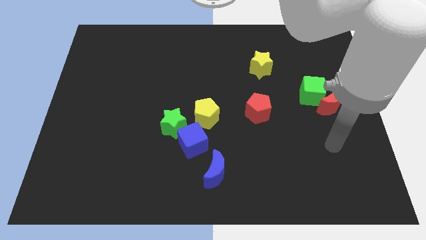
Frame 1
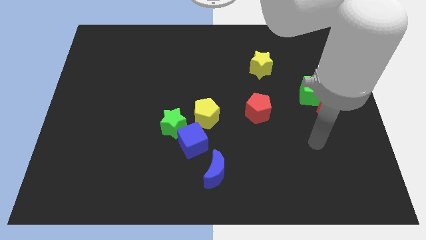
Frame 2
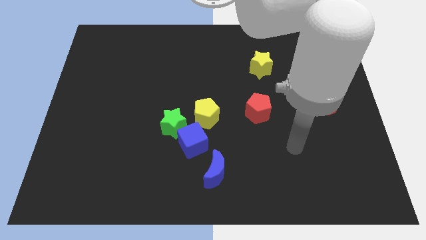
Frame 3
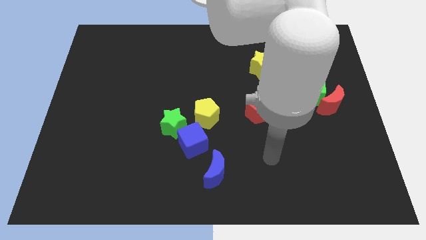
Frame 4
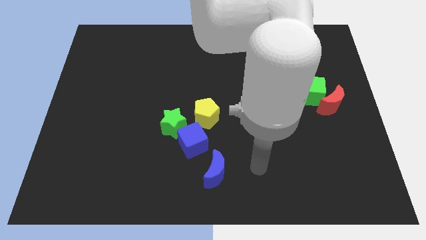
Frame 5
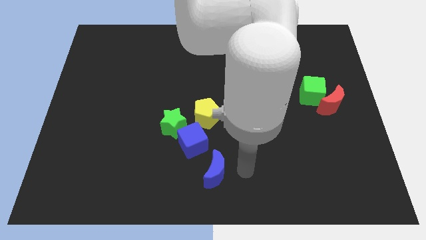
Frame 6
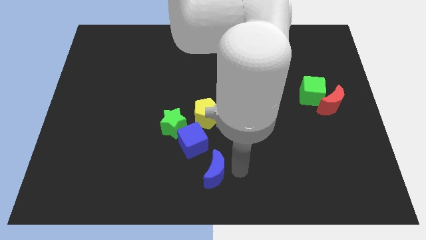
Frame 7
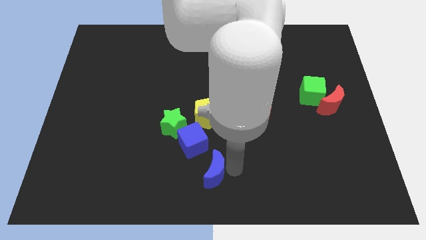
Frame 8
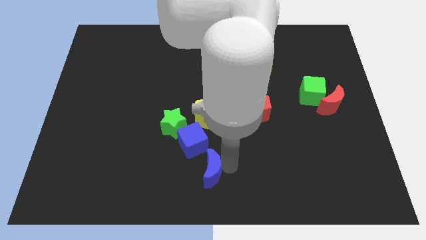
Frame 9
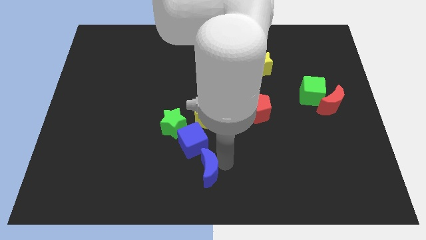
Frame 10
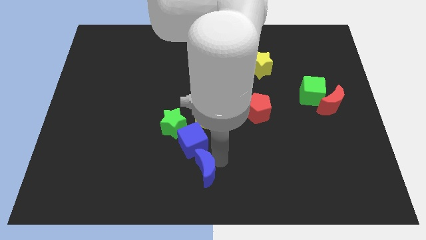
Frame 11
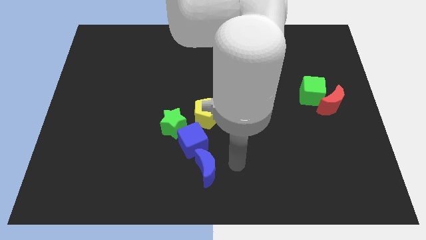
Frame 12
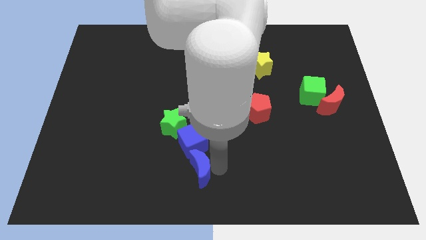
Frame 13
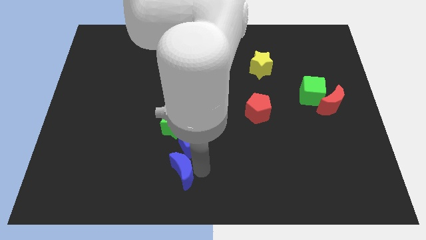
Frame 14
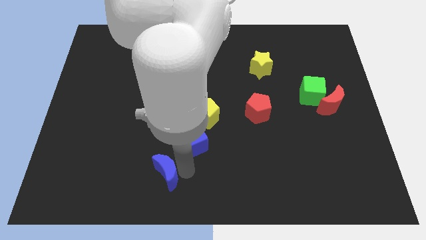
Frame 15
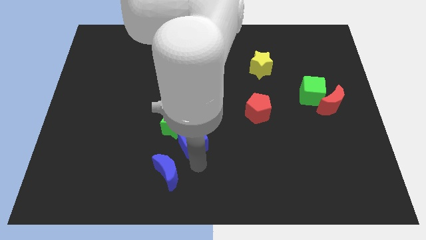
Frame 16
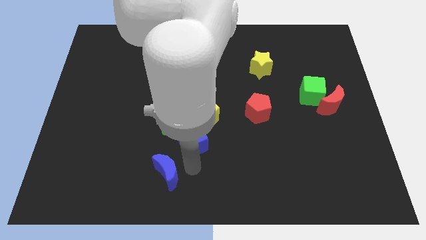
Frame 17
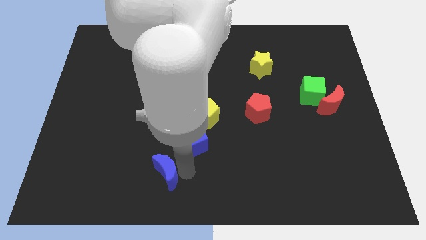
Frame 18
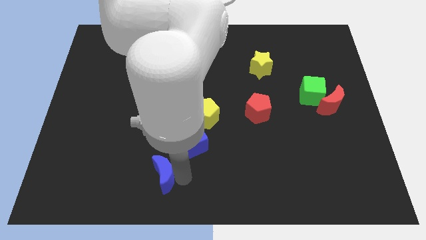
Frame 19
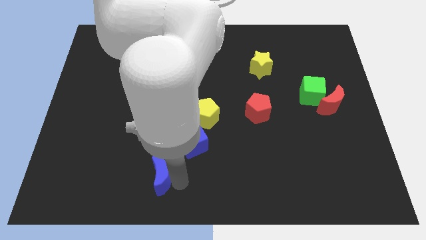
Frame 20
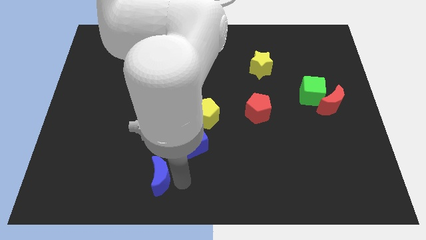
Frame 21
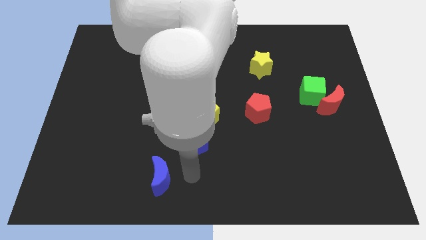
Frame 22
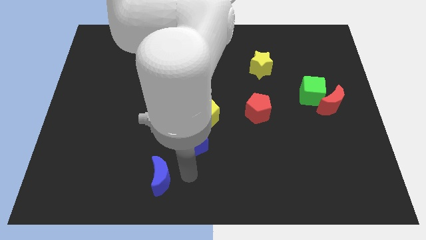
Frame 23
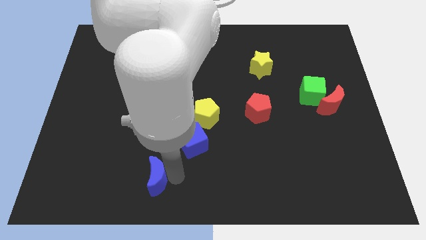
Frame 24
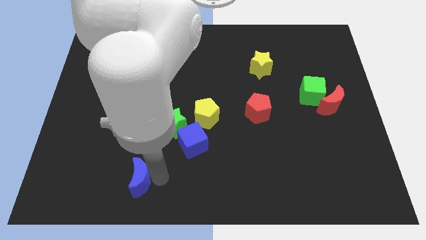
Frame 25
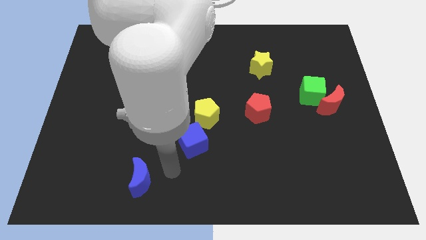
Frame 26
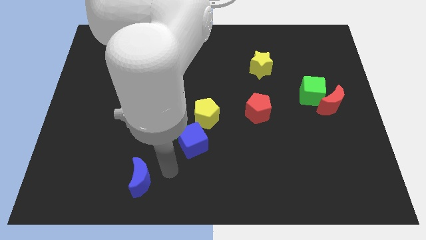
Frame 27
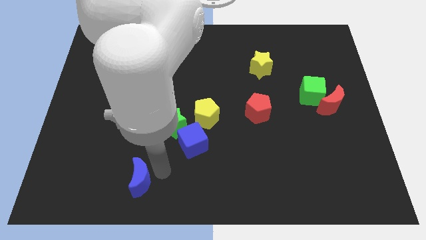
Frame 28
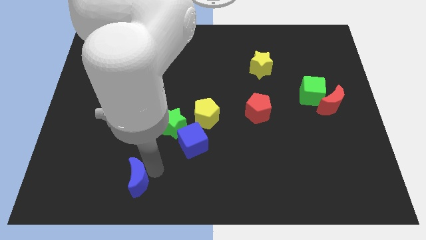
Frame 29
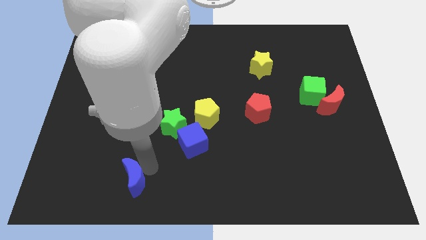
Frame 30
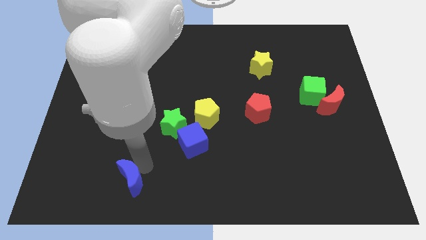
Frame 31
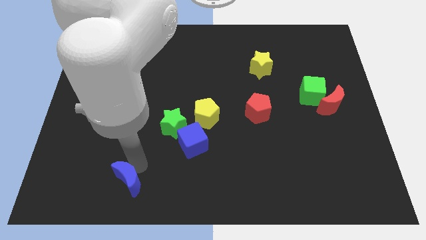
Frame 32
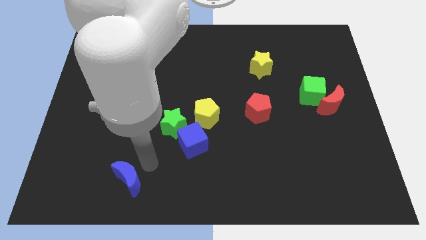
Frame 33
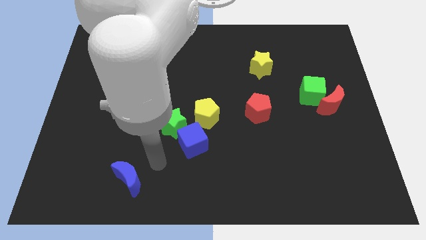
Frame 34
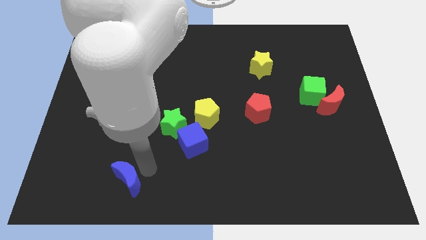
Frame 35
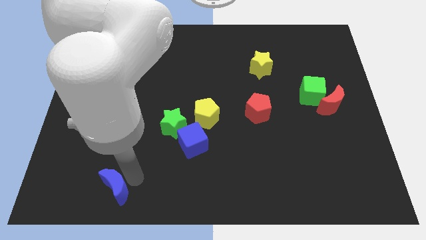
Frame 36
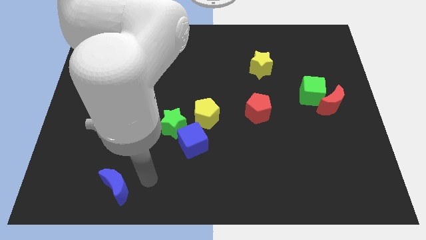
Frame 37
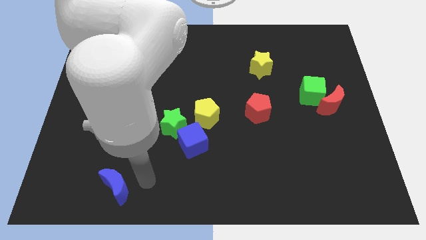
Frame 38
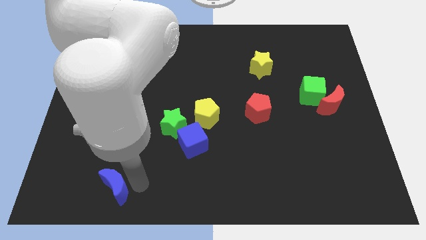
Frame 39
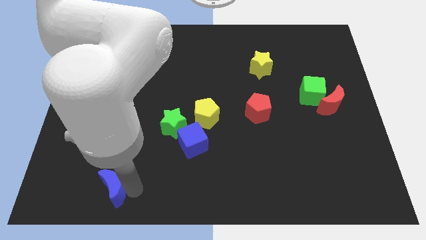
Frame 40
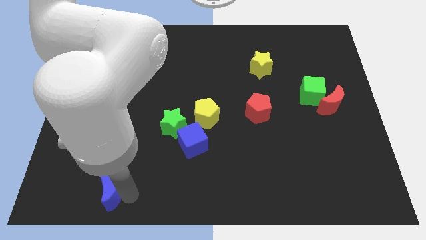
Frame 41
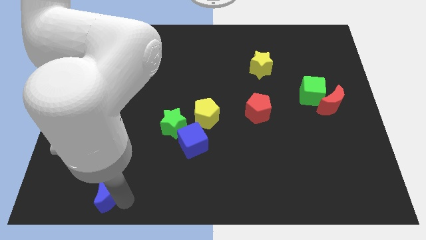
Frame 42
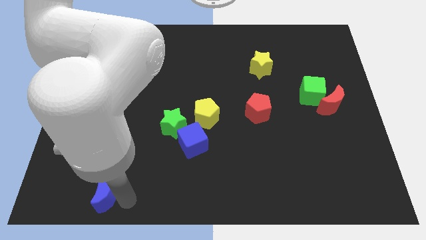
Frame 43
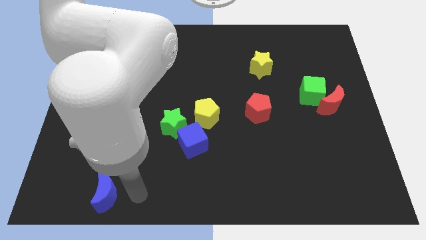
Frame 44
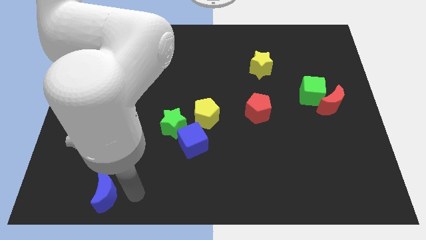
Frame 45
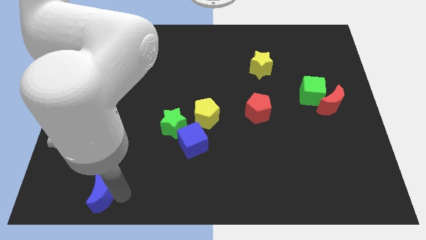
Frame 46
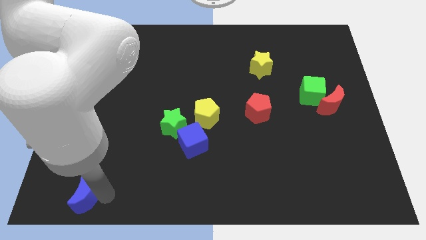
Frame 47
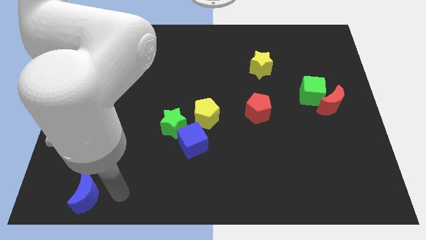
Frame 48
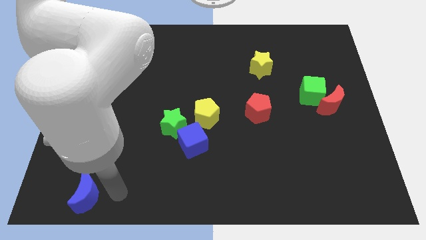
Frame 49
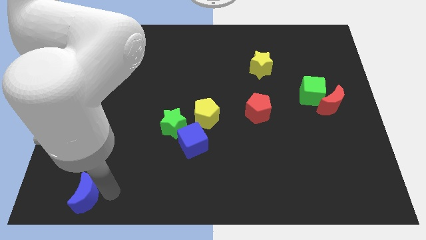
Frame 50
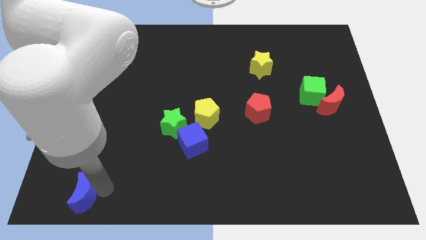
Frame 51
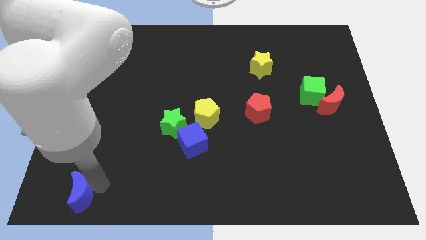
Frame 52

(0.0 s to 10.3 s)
put the blue moon to the bottom left of the board

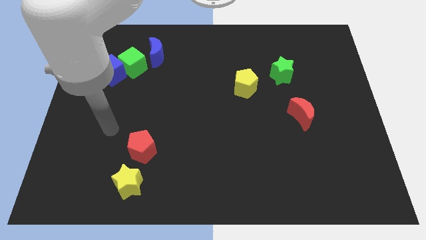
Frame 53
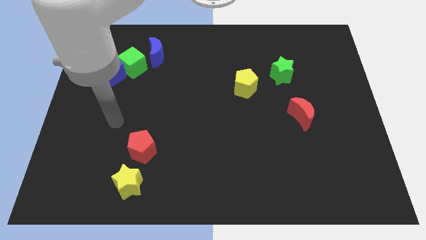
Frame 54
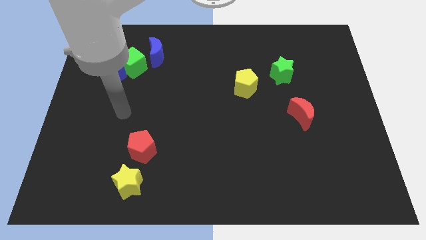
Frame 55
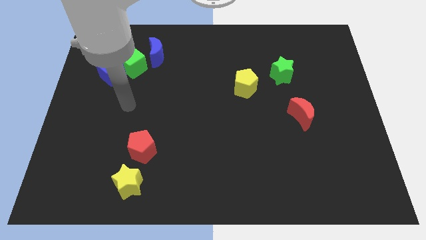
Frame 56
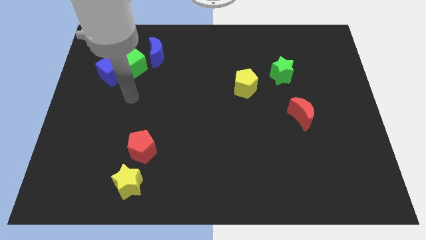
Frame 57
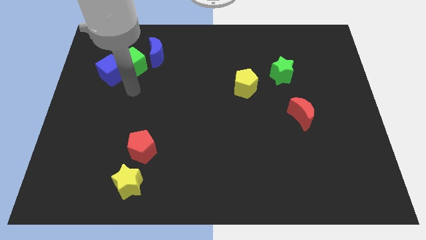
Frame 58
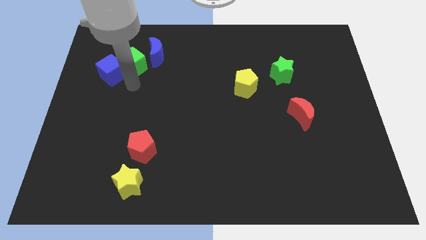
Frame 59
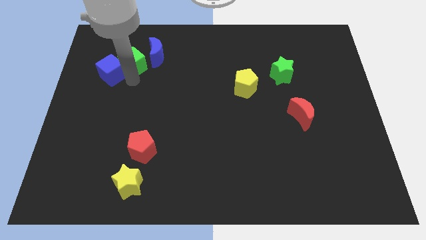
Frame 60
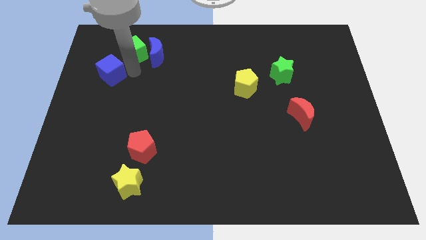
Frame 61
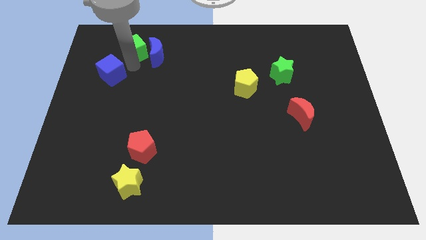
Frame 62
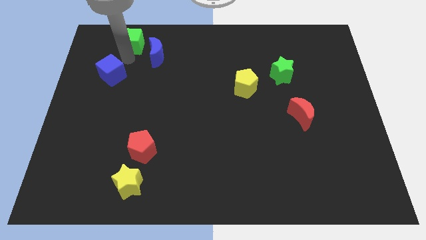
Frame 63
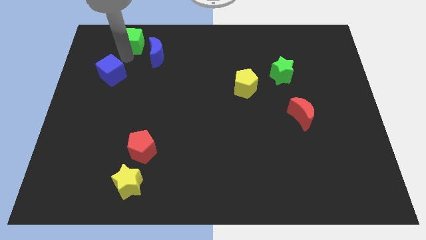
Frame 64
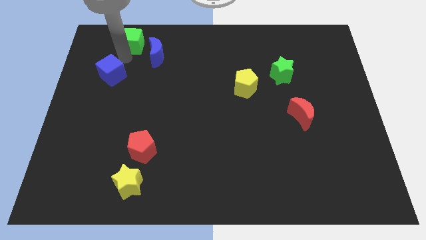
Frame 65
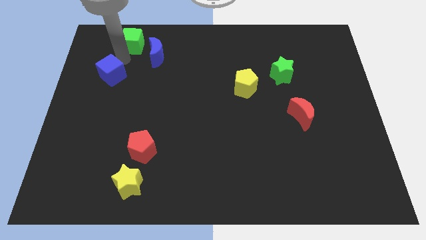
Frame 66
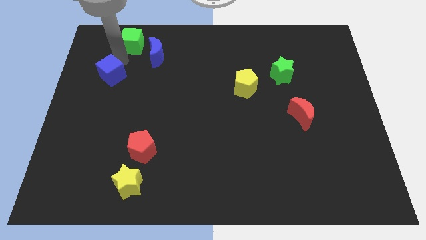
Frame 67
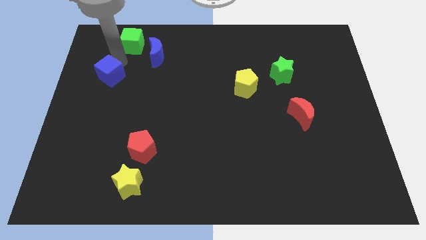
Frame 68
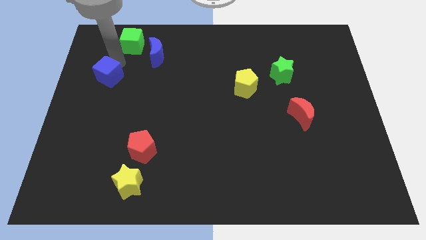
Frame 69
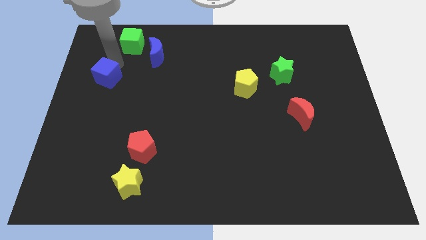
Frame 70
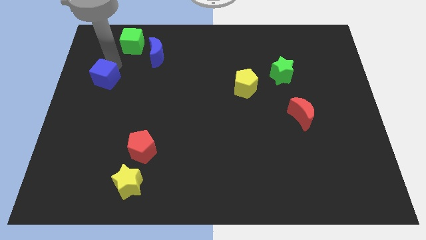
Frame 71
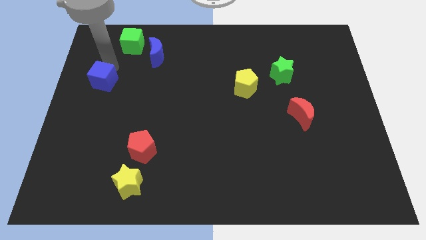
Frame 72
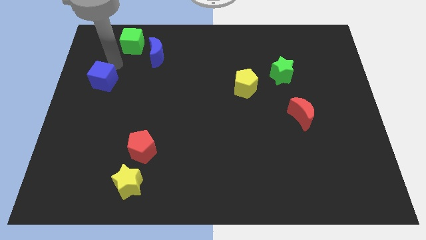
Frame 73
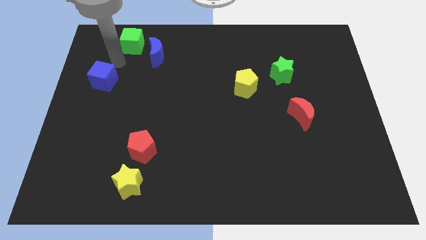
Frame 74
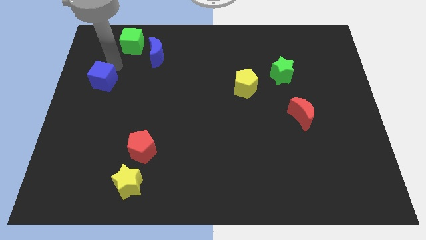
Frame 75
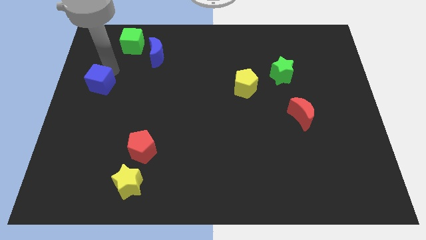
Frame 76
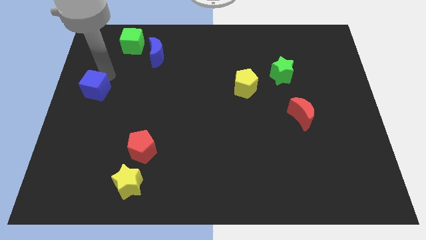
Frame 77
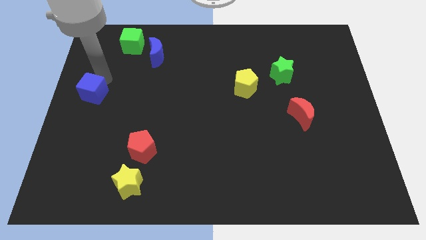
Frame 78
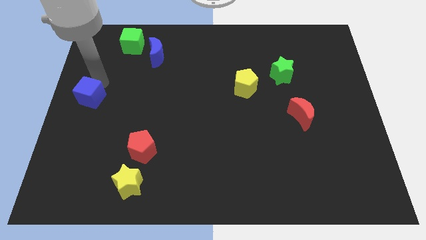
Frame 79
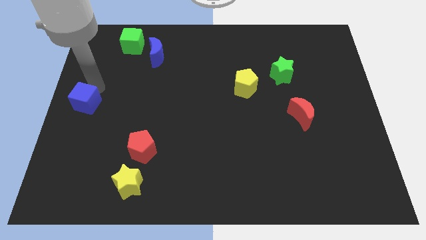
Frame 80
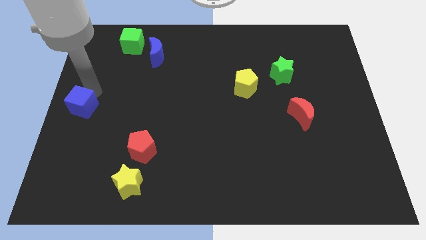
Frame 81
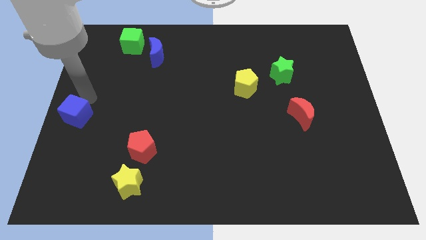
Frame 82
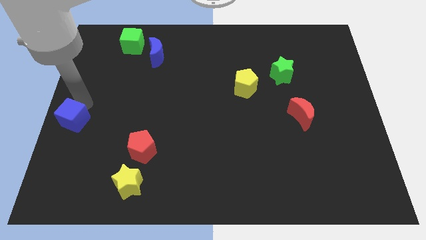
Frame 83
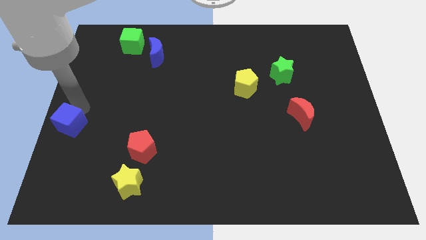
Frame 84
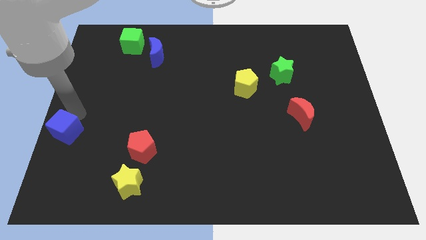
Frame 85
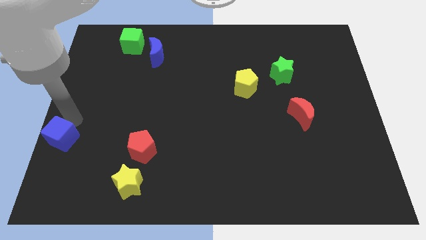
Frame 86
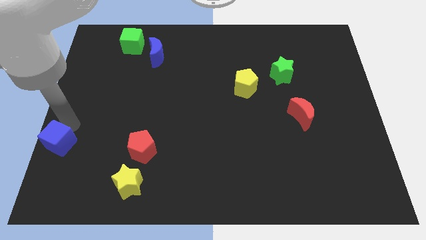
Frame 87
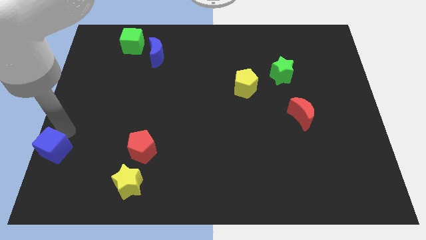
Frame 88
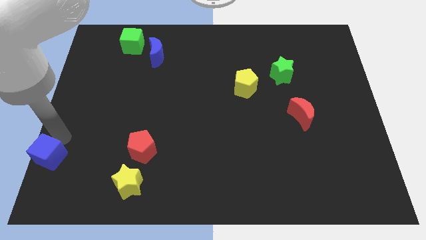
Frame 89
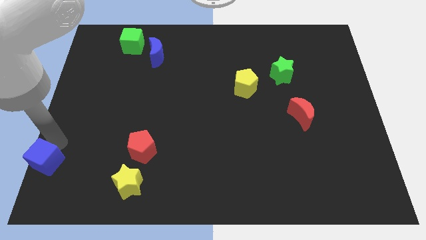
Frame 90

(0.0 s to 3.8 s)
slide the blue cube to the bottom left of the board
